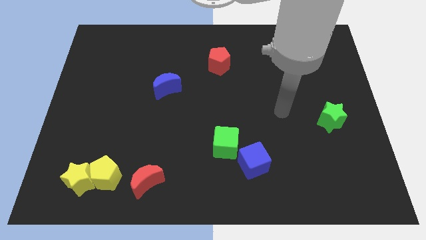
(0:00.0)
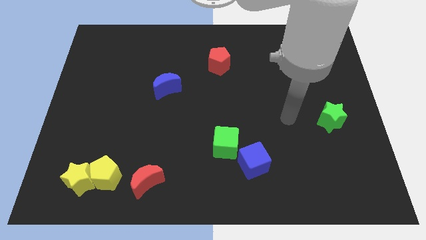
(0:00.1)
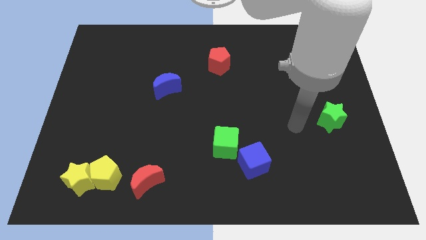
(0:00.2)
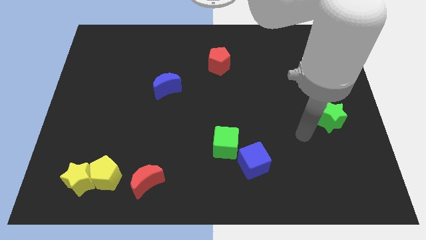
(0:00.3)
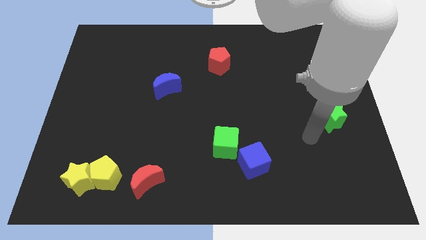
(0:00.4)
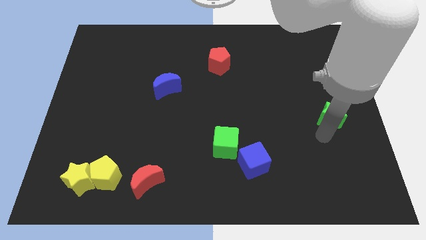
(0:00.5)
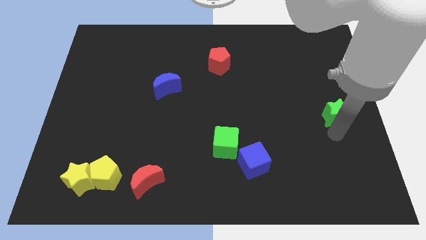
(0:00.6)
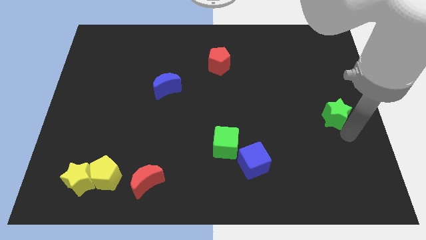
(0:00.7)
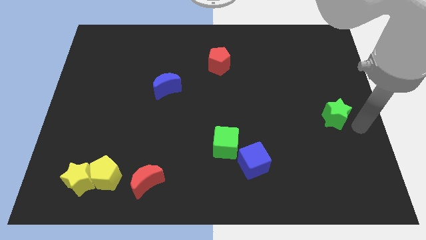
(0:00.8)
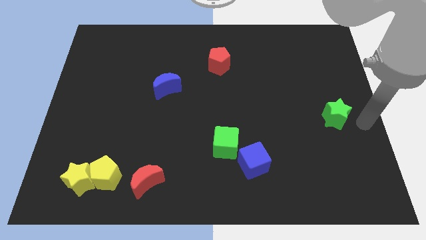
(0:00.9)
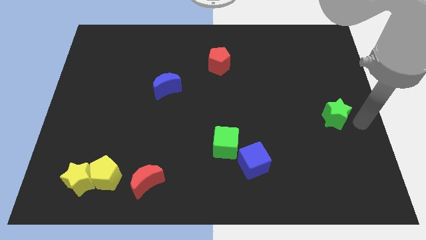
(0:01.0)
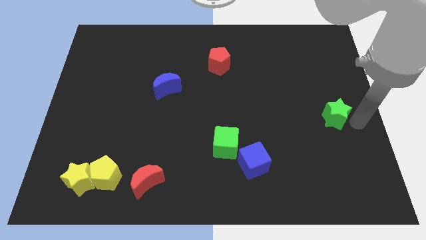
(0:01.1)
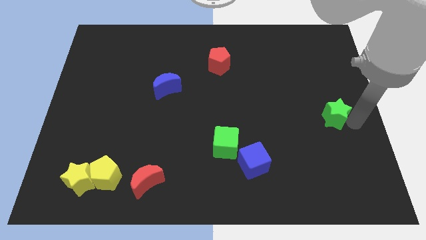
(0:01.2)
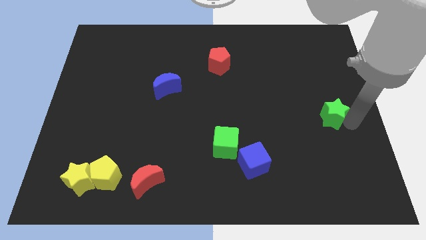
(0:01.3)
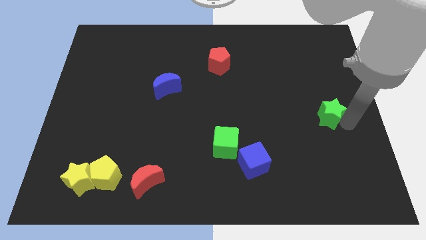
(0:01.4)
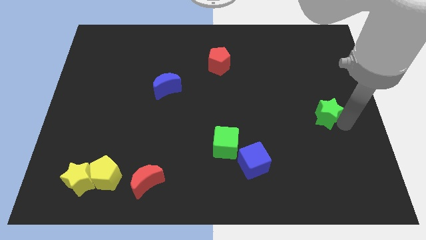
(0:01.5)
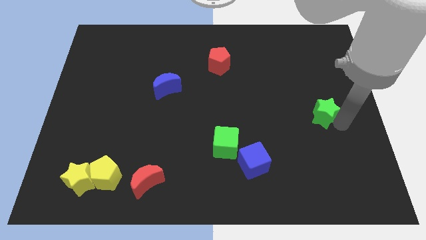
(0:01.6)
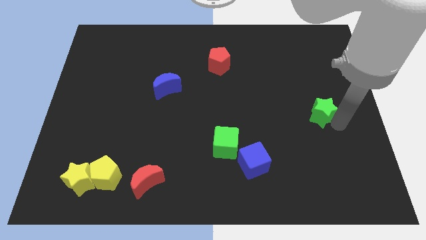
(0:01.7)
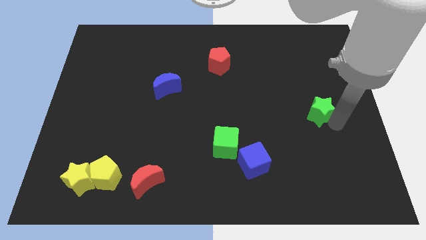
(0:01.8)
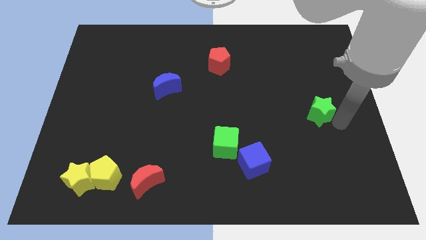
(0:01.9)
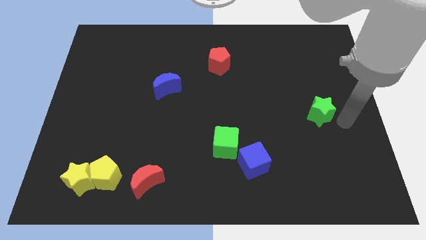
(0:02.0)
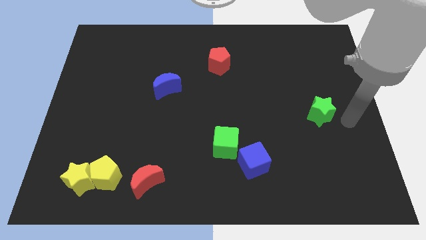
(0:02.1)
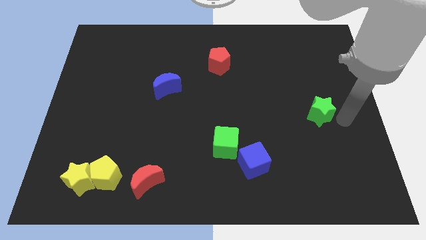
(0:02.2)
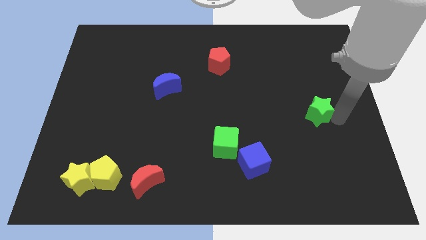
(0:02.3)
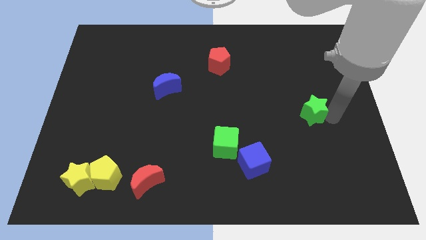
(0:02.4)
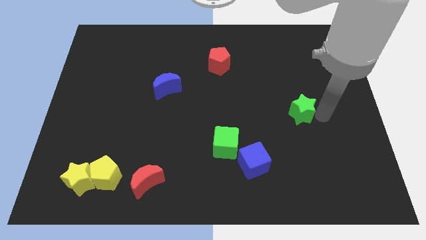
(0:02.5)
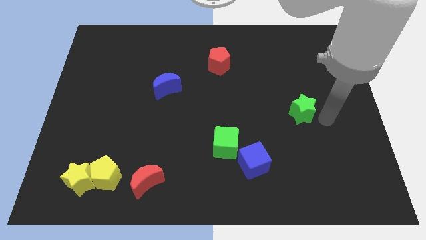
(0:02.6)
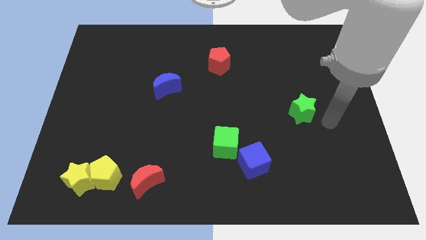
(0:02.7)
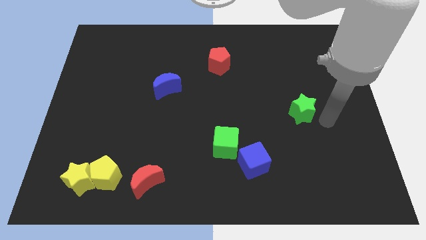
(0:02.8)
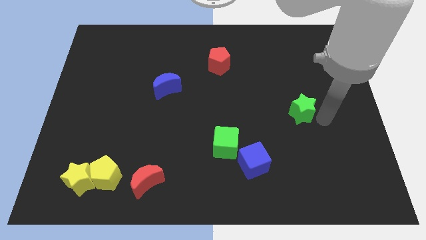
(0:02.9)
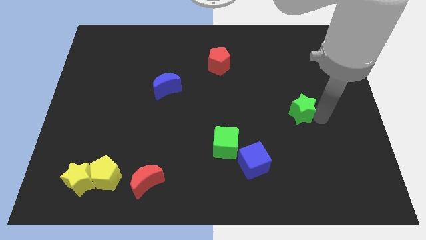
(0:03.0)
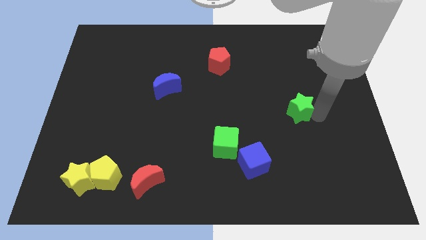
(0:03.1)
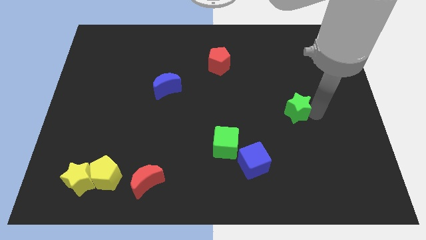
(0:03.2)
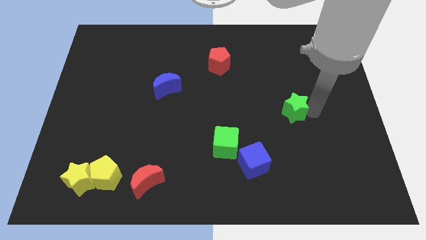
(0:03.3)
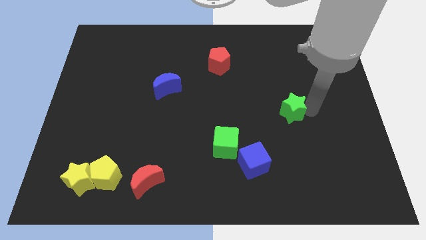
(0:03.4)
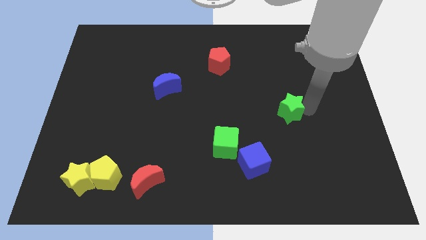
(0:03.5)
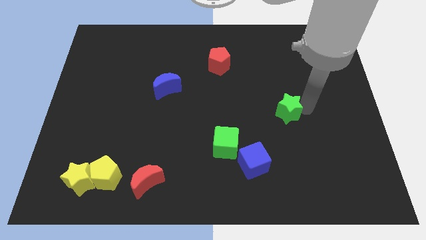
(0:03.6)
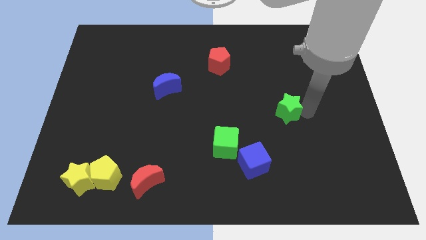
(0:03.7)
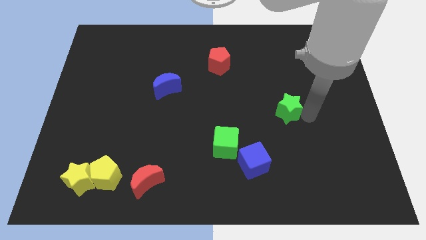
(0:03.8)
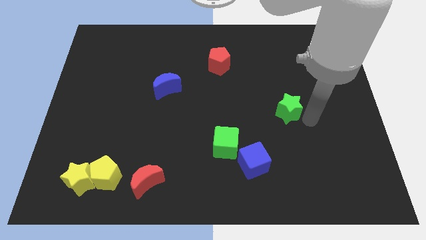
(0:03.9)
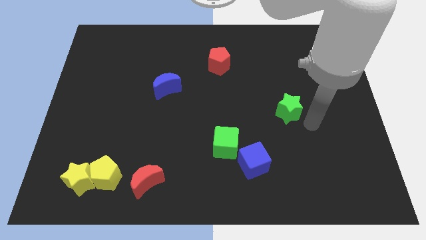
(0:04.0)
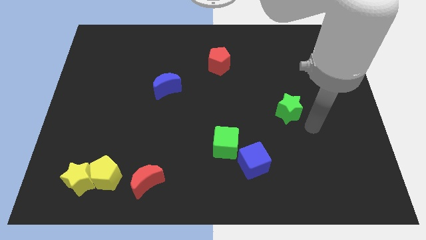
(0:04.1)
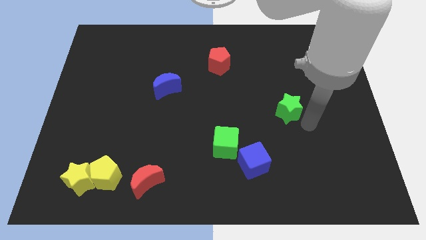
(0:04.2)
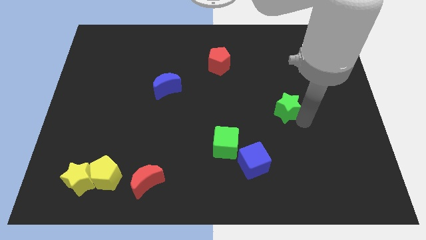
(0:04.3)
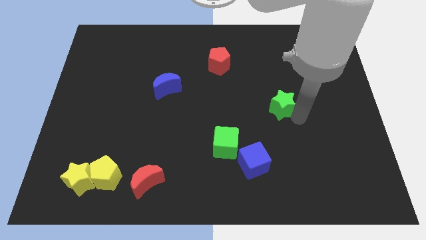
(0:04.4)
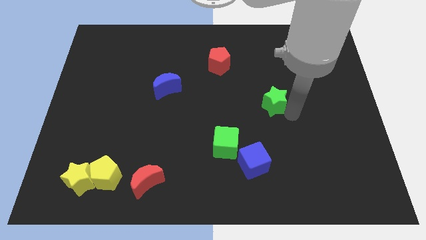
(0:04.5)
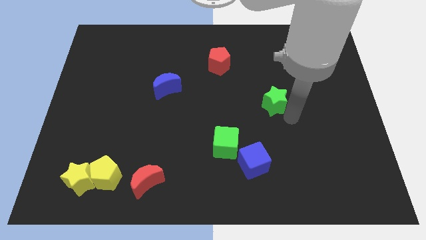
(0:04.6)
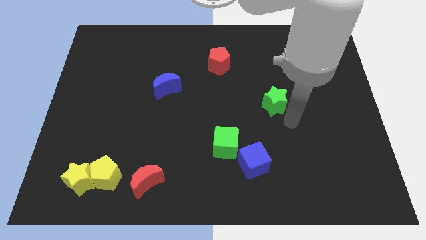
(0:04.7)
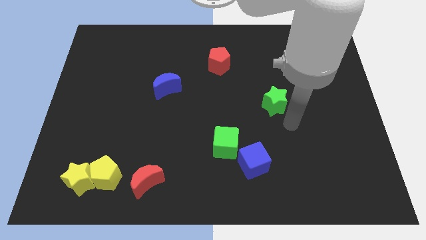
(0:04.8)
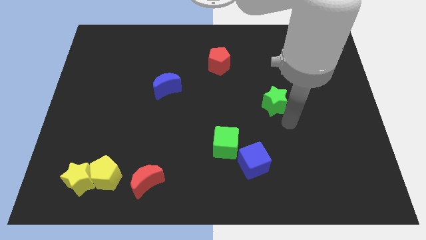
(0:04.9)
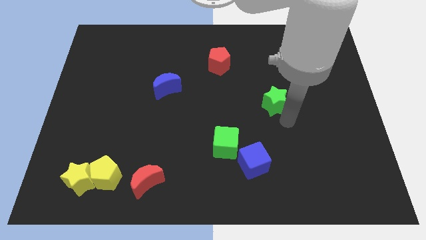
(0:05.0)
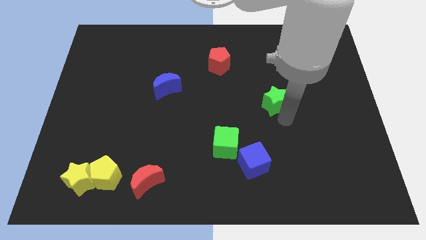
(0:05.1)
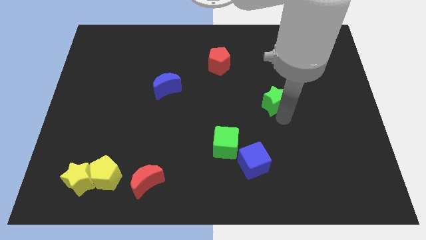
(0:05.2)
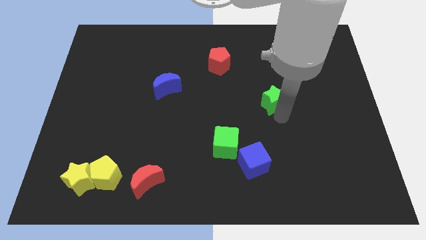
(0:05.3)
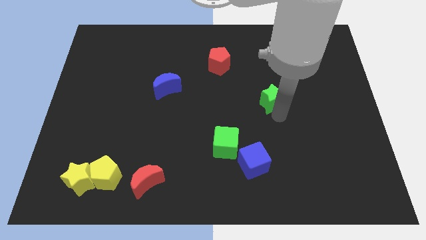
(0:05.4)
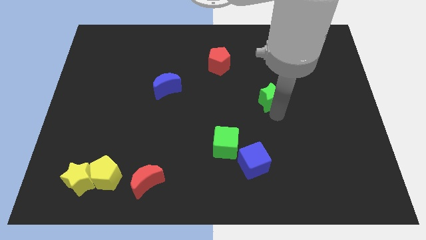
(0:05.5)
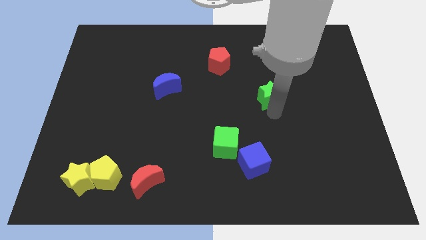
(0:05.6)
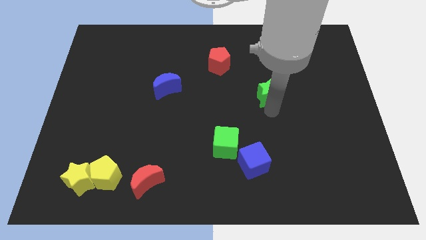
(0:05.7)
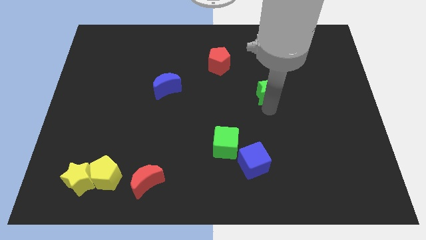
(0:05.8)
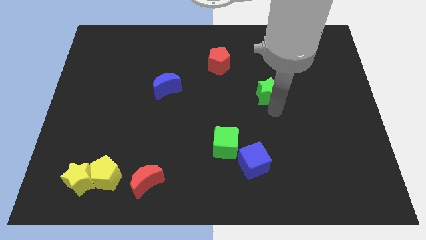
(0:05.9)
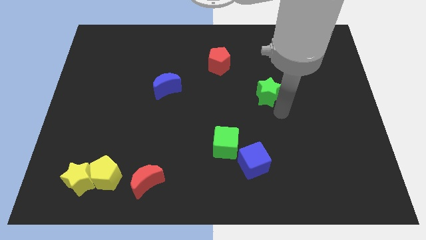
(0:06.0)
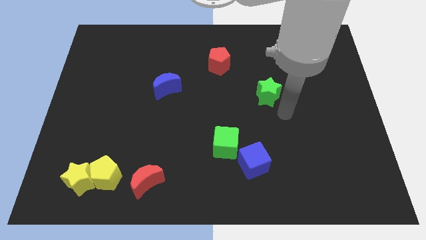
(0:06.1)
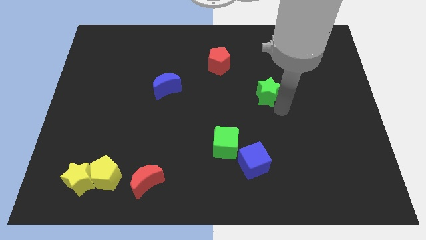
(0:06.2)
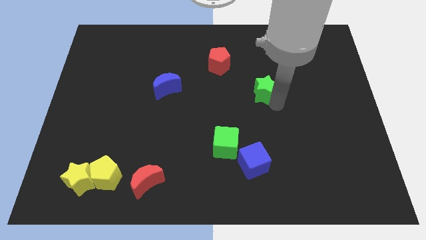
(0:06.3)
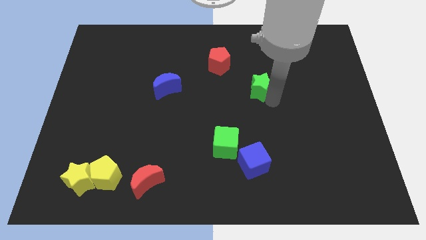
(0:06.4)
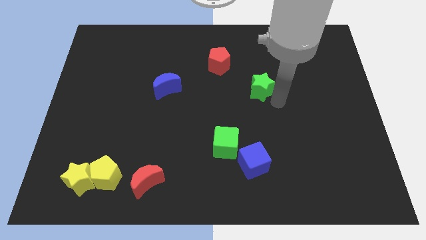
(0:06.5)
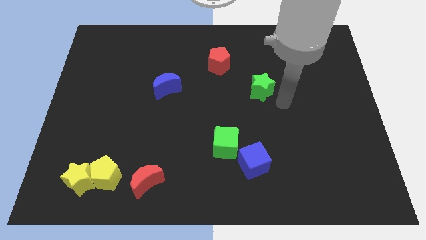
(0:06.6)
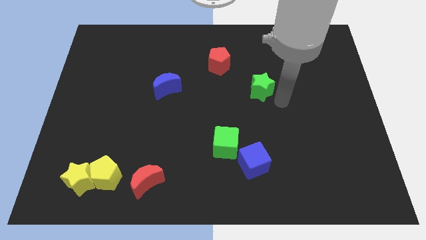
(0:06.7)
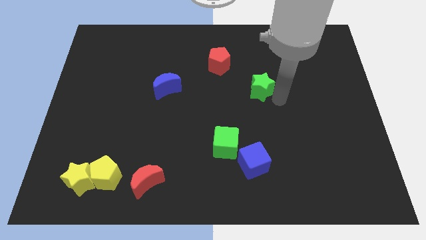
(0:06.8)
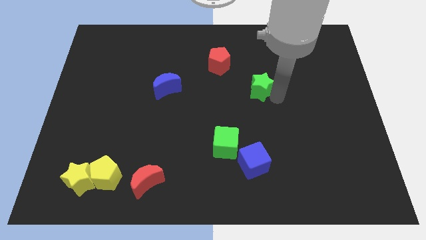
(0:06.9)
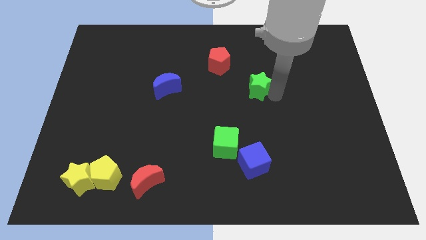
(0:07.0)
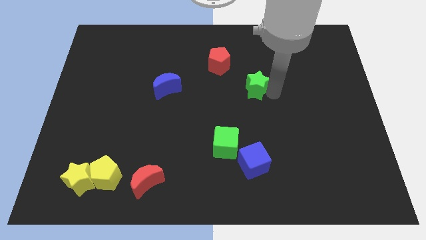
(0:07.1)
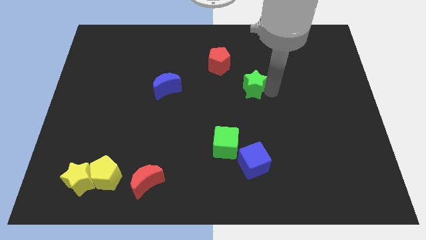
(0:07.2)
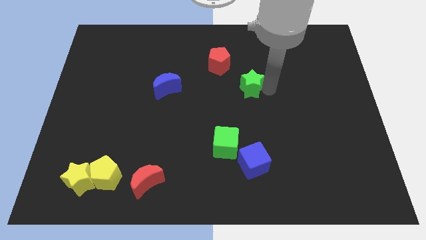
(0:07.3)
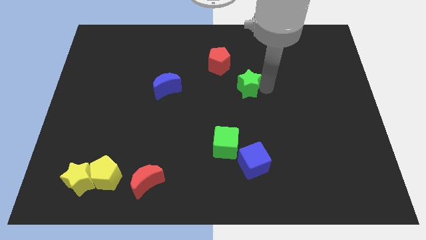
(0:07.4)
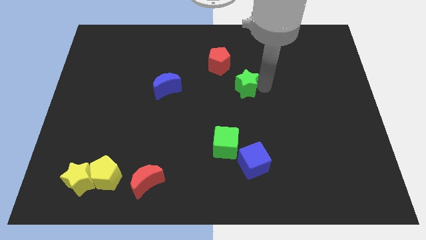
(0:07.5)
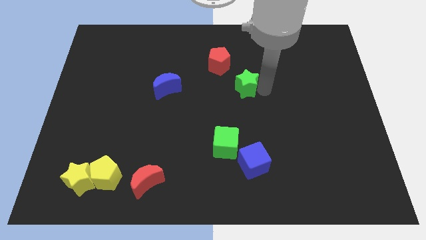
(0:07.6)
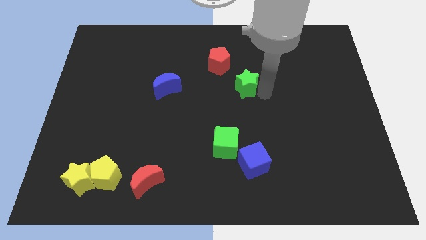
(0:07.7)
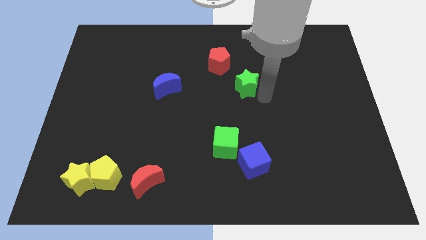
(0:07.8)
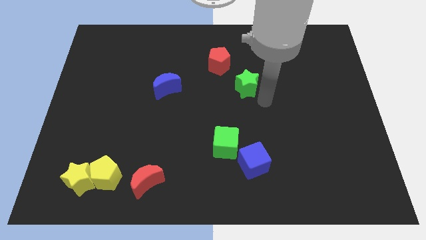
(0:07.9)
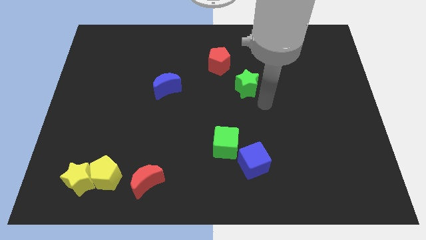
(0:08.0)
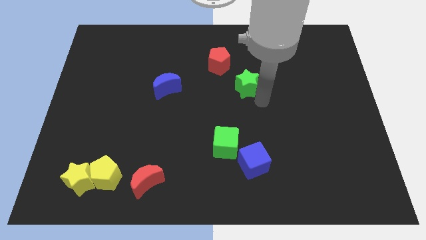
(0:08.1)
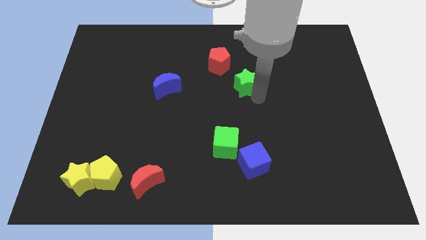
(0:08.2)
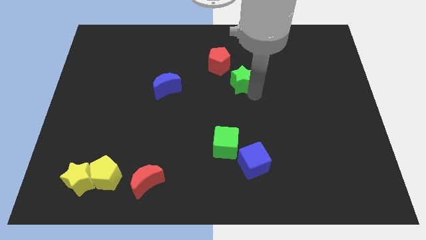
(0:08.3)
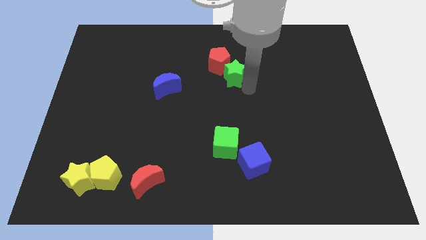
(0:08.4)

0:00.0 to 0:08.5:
push the green star towards the red pentagon
